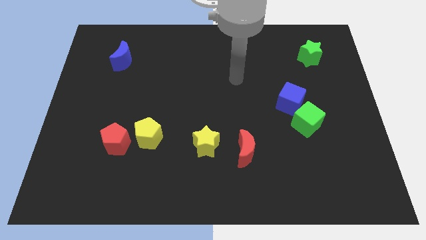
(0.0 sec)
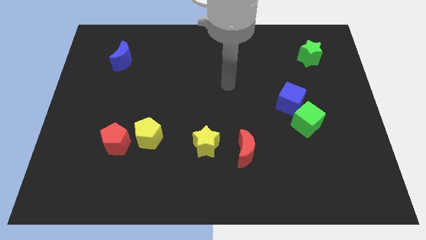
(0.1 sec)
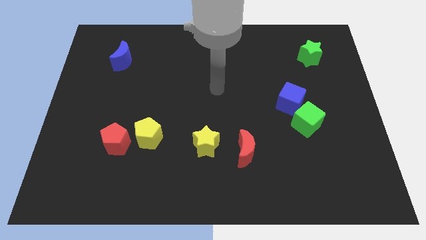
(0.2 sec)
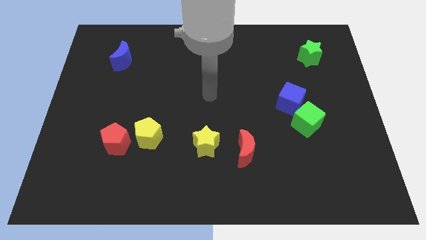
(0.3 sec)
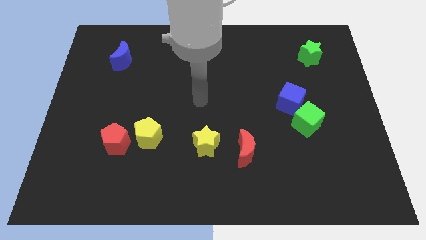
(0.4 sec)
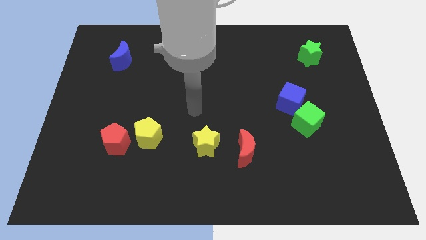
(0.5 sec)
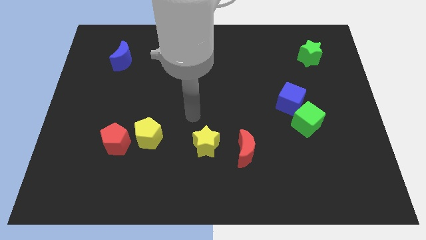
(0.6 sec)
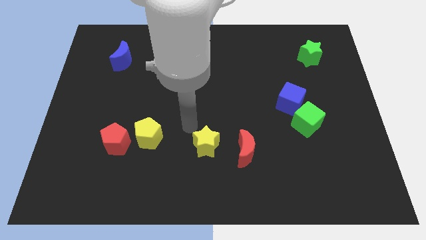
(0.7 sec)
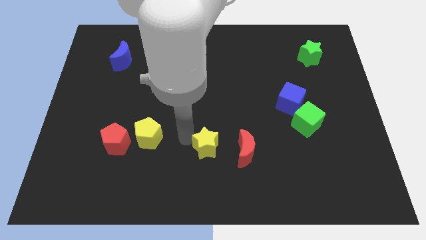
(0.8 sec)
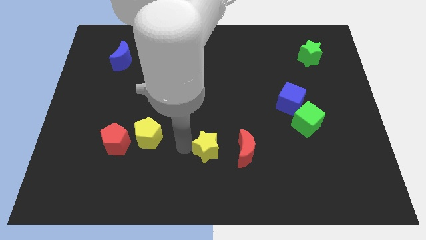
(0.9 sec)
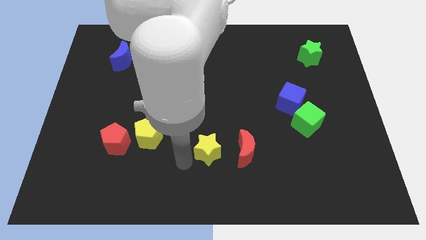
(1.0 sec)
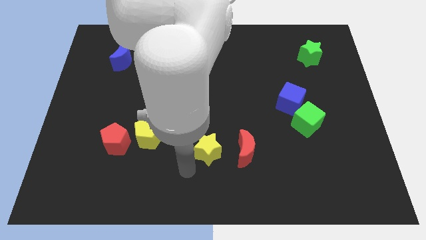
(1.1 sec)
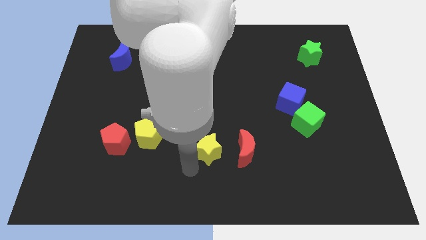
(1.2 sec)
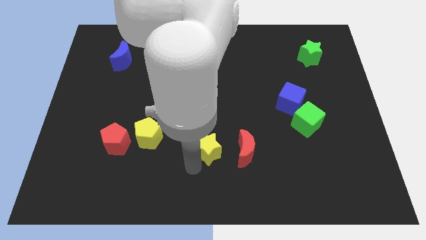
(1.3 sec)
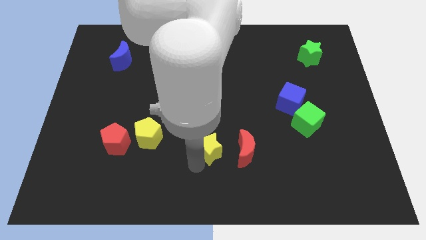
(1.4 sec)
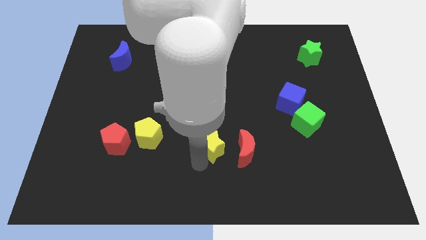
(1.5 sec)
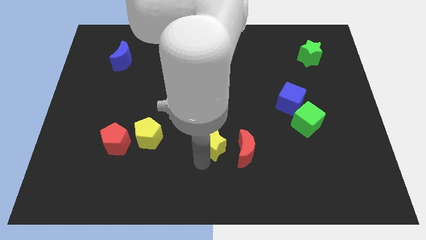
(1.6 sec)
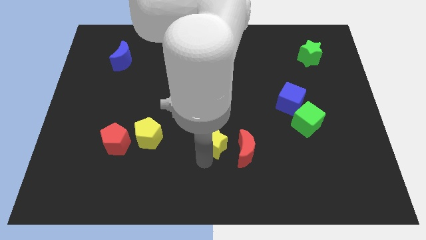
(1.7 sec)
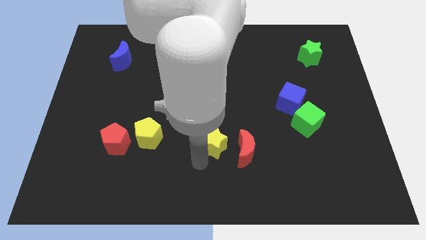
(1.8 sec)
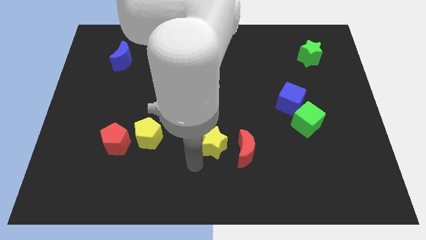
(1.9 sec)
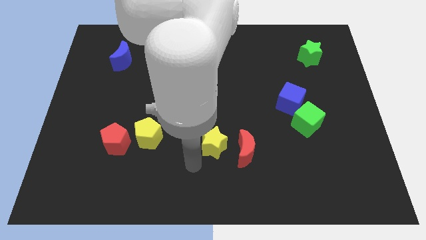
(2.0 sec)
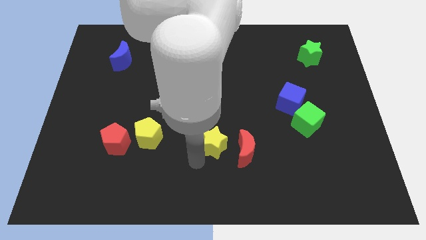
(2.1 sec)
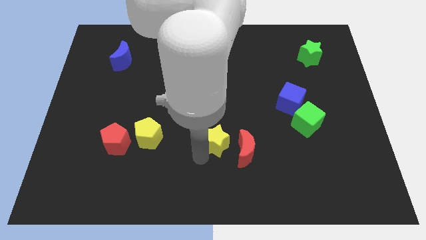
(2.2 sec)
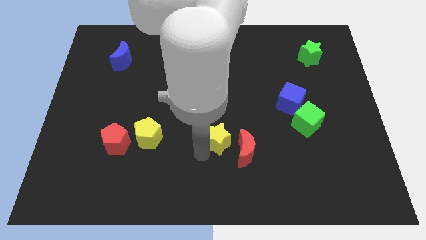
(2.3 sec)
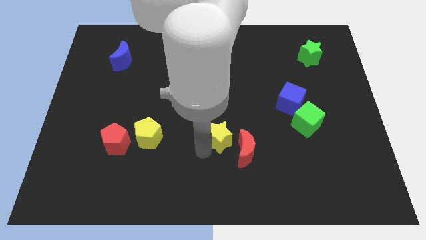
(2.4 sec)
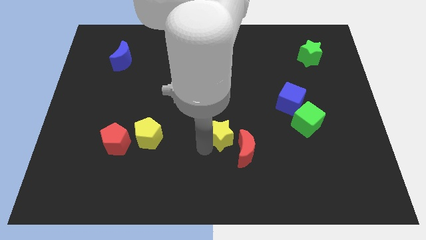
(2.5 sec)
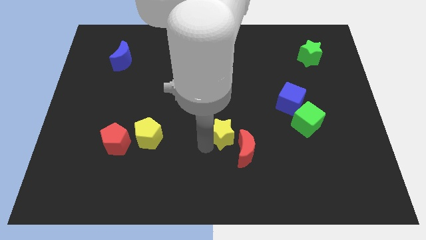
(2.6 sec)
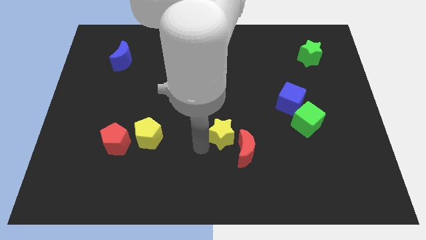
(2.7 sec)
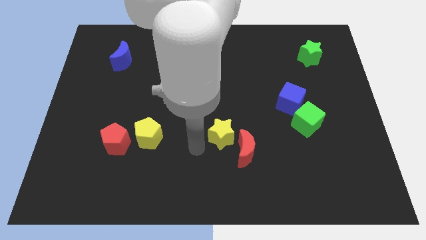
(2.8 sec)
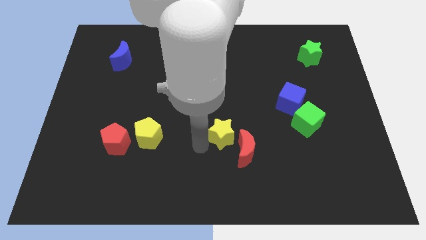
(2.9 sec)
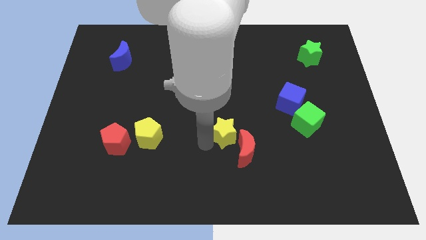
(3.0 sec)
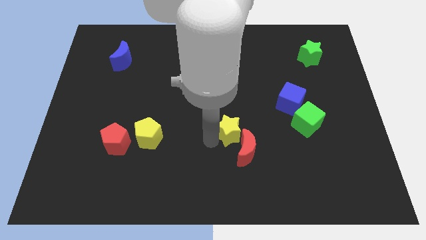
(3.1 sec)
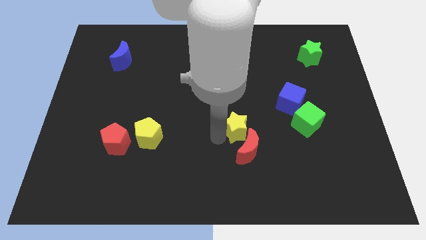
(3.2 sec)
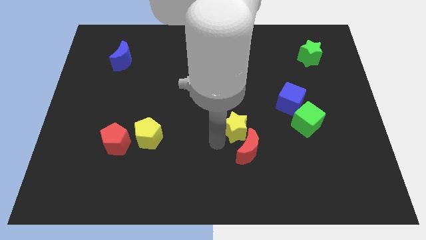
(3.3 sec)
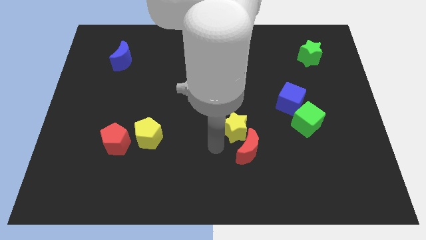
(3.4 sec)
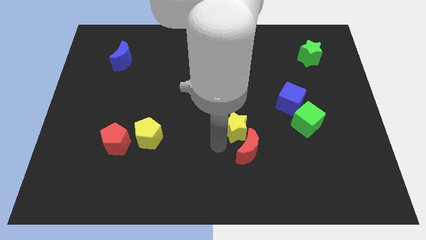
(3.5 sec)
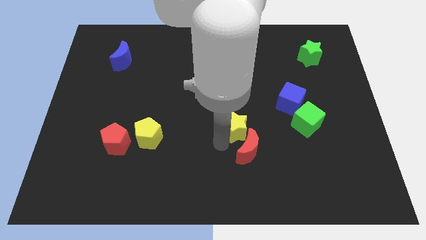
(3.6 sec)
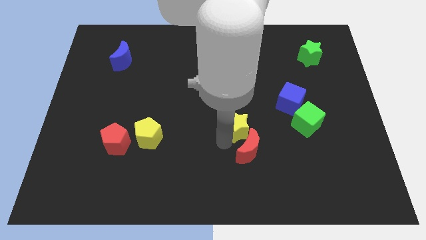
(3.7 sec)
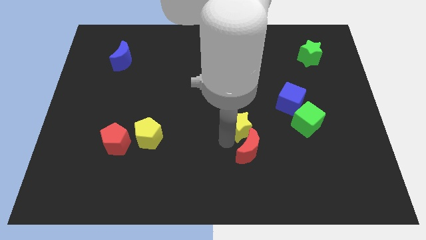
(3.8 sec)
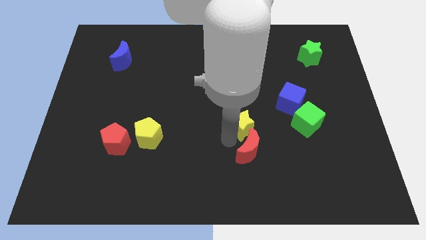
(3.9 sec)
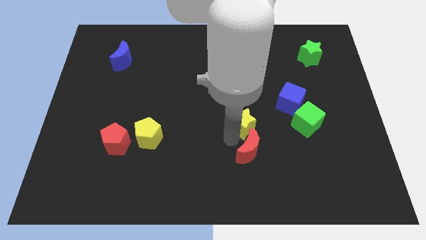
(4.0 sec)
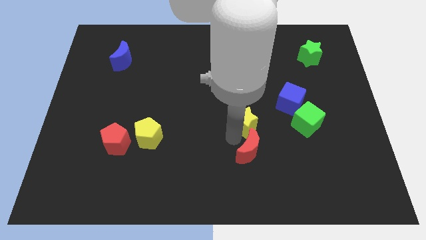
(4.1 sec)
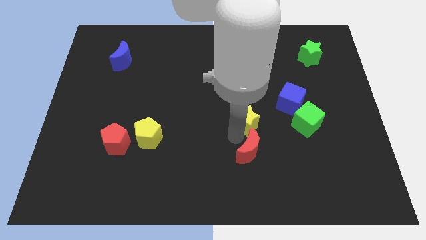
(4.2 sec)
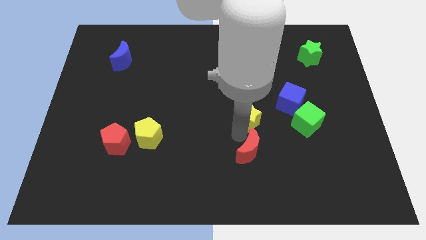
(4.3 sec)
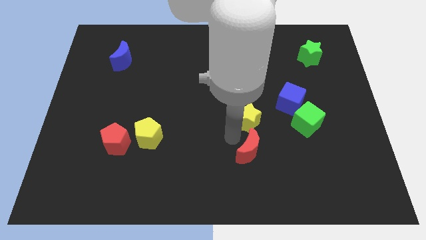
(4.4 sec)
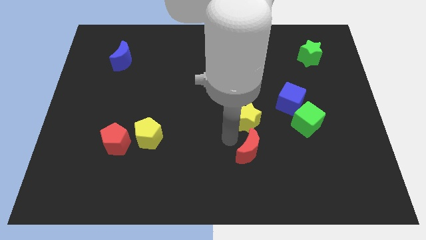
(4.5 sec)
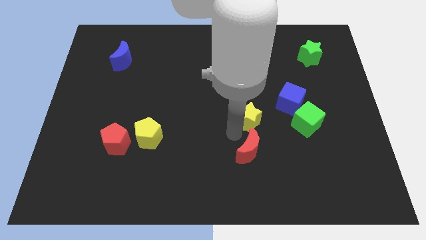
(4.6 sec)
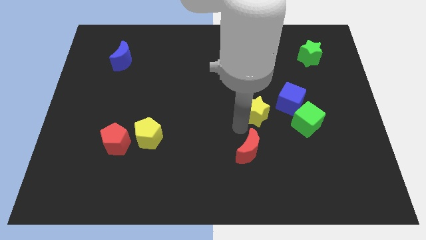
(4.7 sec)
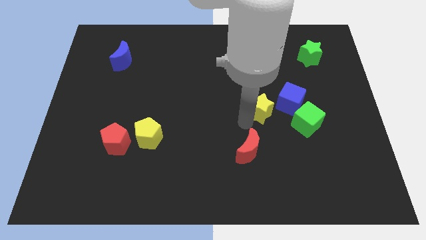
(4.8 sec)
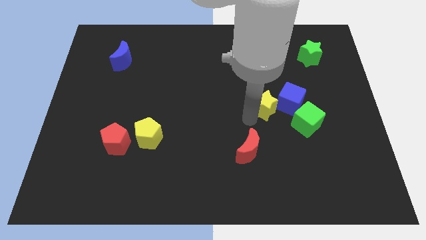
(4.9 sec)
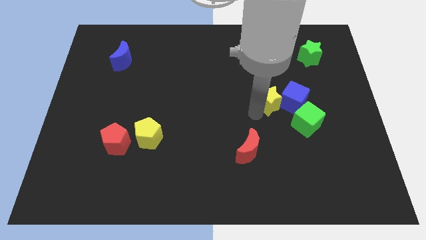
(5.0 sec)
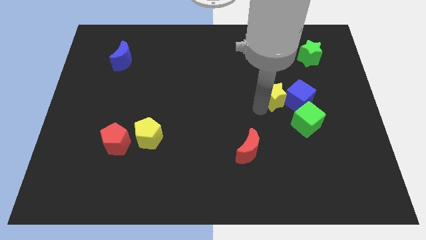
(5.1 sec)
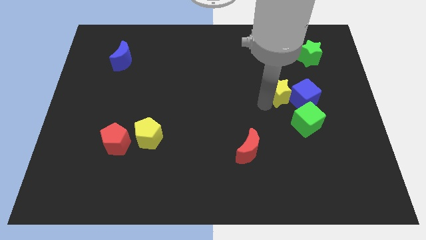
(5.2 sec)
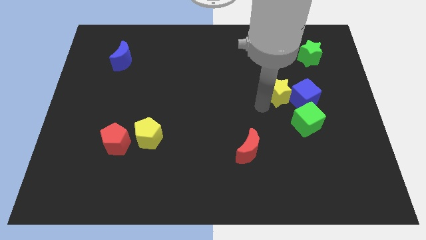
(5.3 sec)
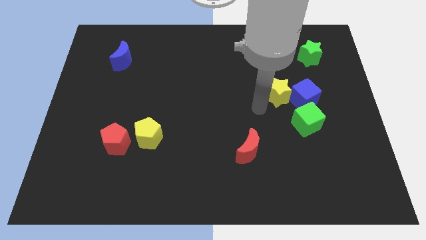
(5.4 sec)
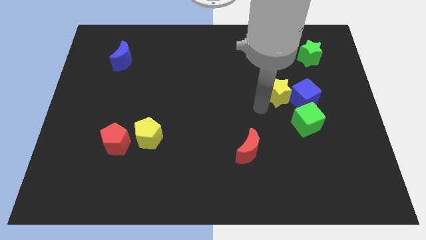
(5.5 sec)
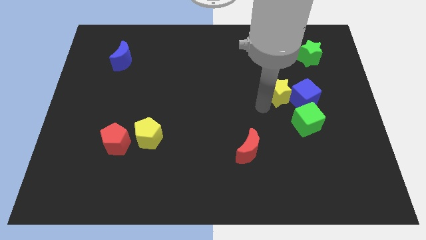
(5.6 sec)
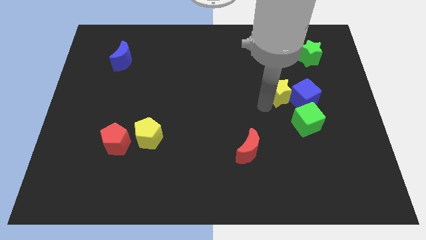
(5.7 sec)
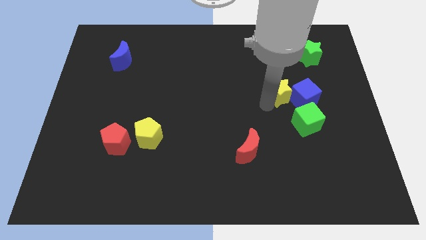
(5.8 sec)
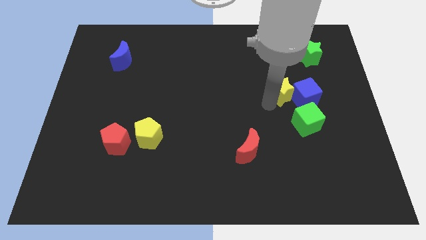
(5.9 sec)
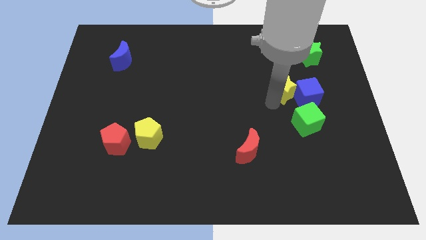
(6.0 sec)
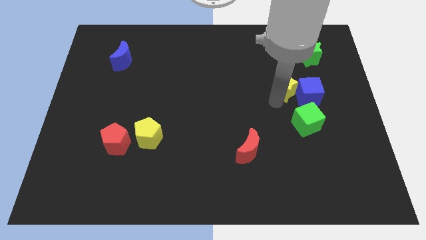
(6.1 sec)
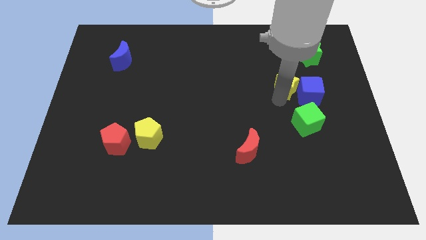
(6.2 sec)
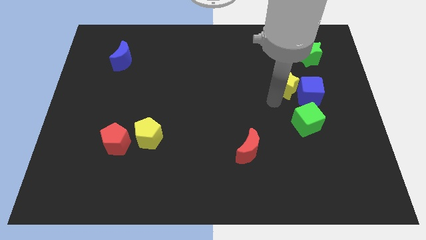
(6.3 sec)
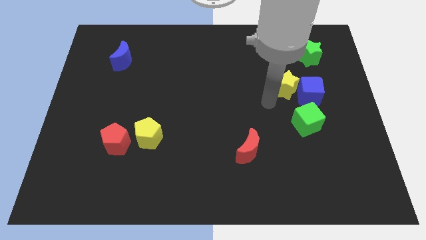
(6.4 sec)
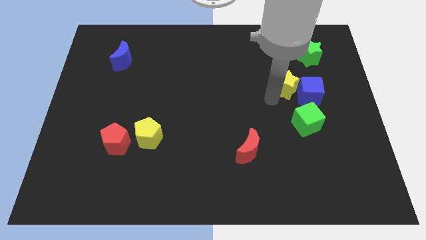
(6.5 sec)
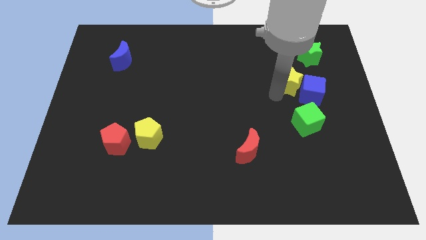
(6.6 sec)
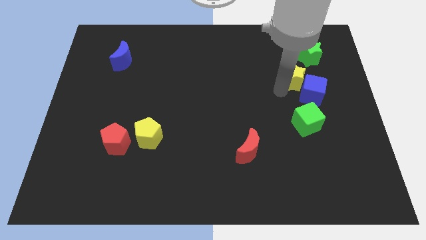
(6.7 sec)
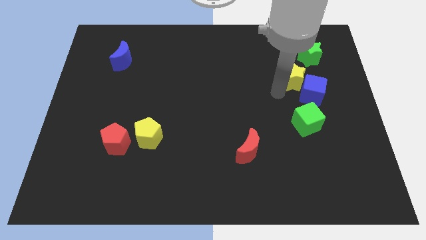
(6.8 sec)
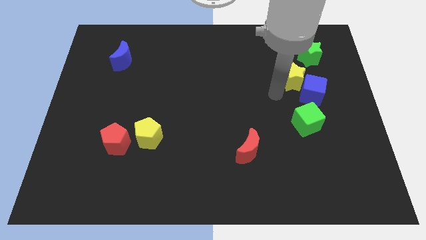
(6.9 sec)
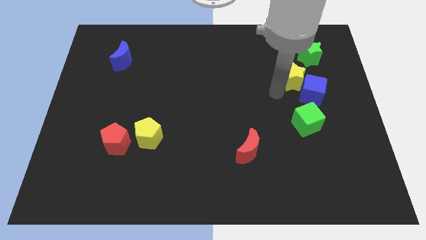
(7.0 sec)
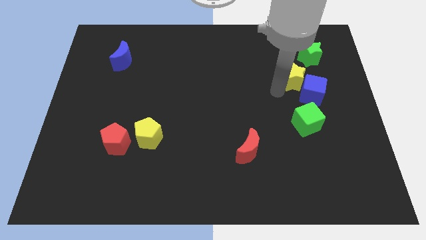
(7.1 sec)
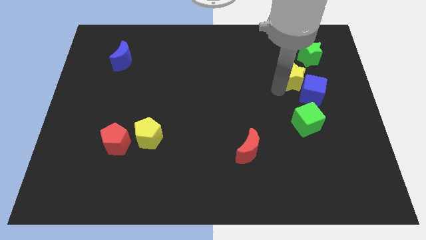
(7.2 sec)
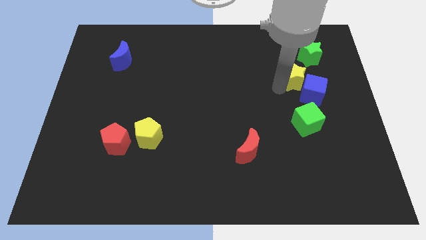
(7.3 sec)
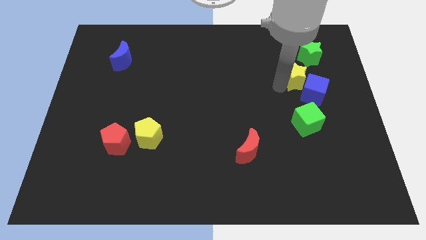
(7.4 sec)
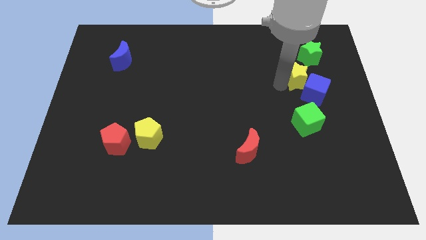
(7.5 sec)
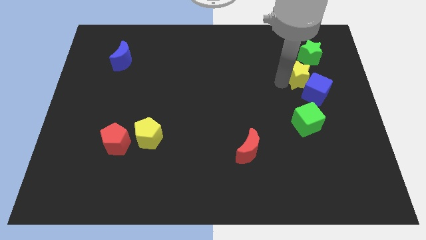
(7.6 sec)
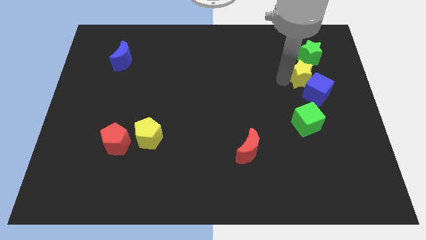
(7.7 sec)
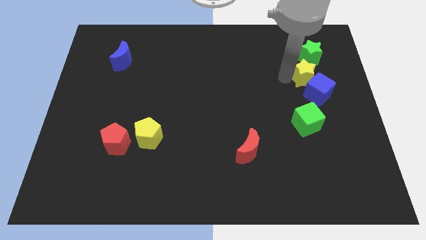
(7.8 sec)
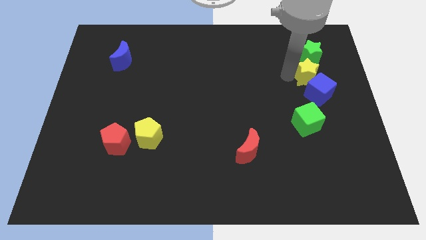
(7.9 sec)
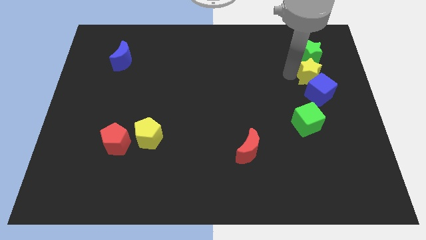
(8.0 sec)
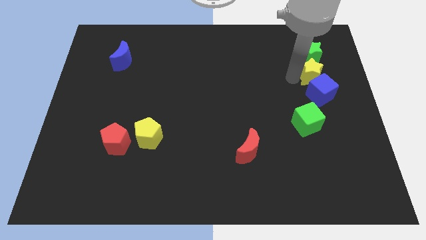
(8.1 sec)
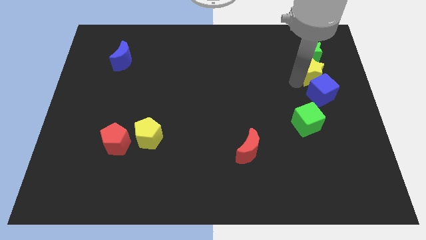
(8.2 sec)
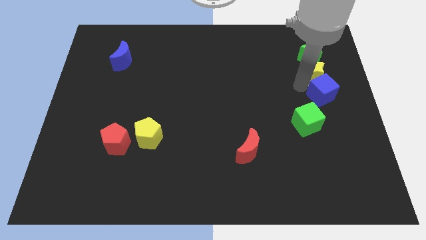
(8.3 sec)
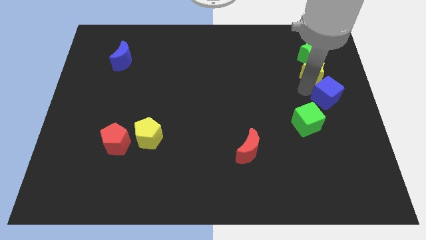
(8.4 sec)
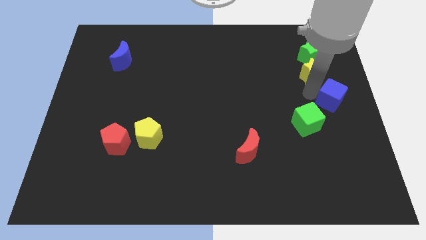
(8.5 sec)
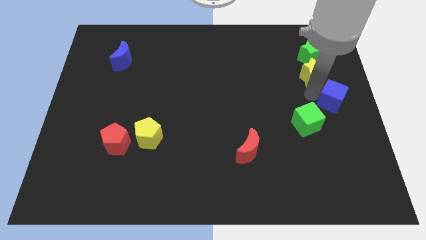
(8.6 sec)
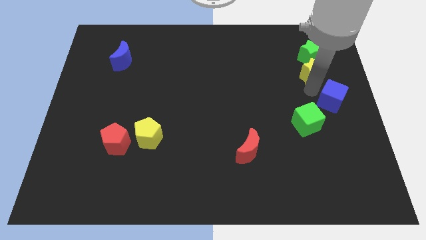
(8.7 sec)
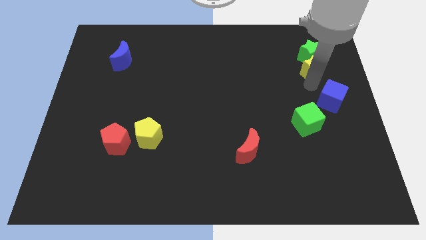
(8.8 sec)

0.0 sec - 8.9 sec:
push the yellow star next to the green star
